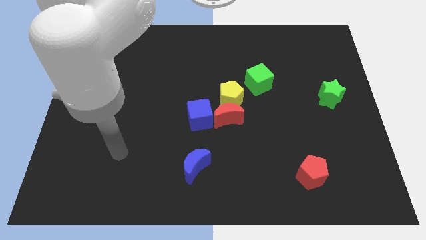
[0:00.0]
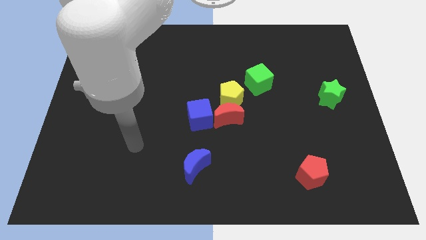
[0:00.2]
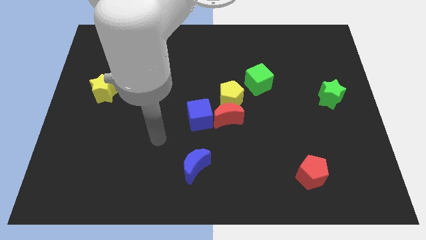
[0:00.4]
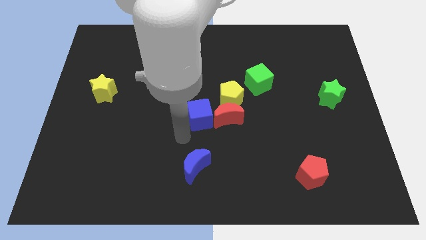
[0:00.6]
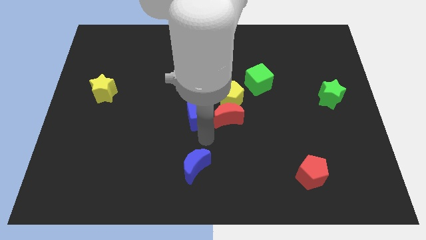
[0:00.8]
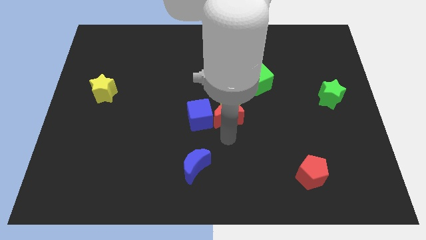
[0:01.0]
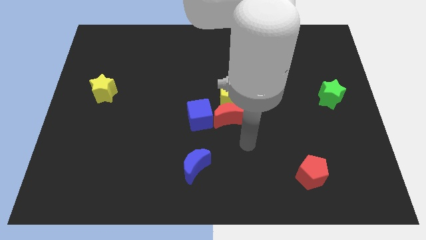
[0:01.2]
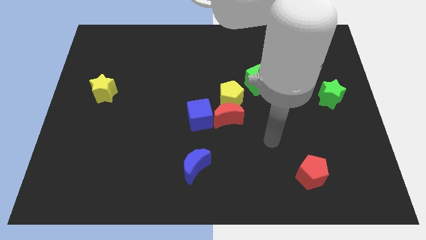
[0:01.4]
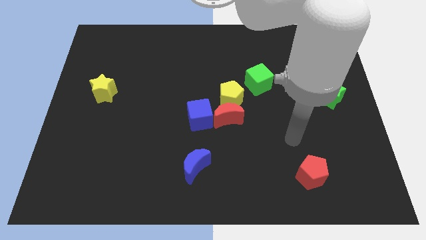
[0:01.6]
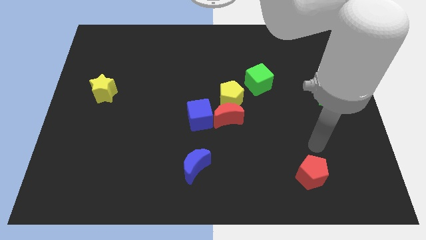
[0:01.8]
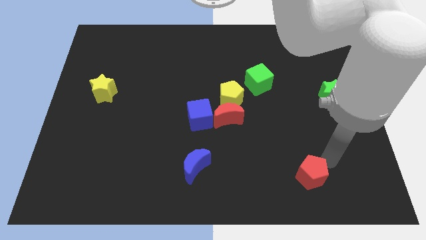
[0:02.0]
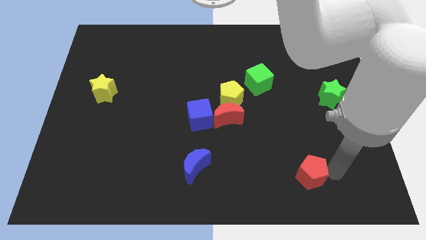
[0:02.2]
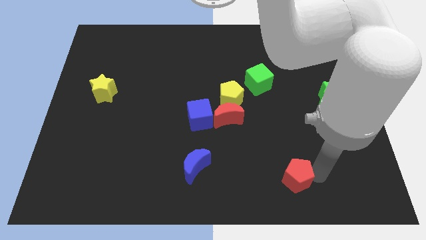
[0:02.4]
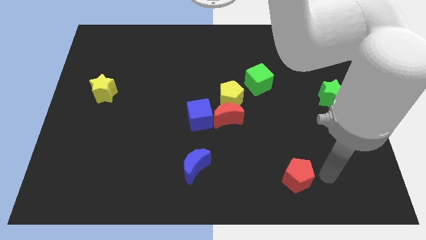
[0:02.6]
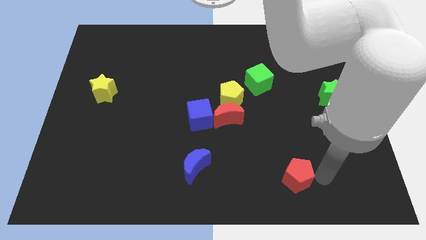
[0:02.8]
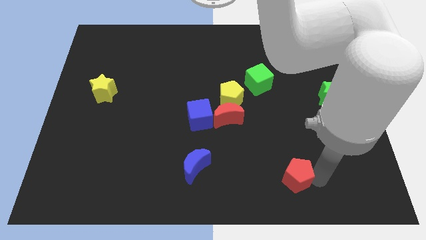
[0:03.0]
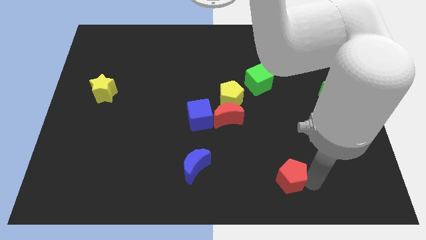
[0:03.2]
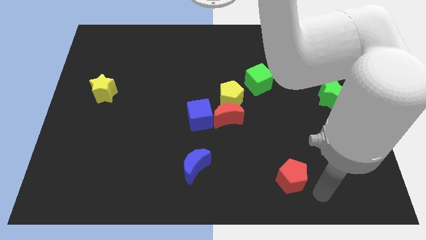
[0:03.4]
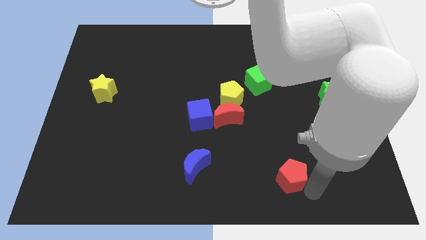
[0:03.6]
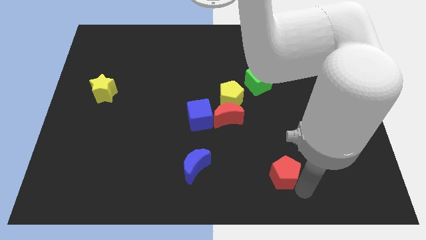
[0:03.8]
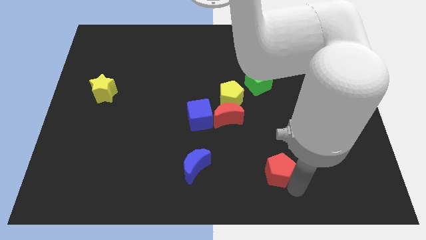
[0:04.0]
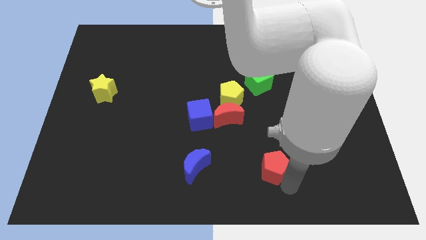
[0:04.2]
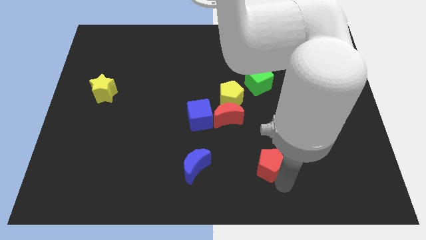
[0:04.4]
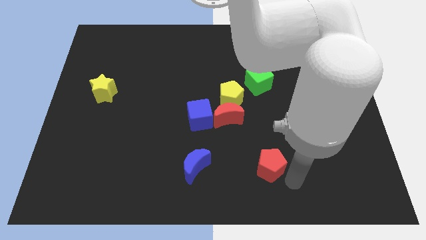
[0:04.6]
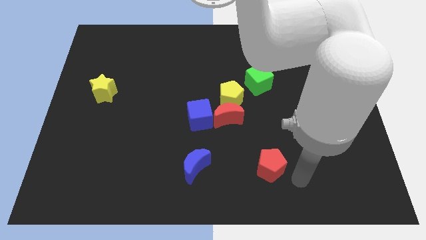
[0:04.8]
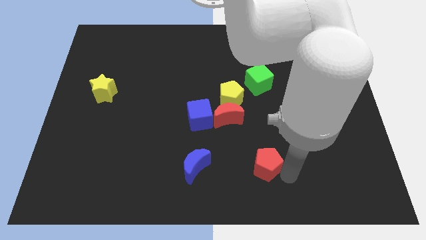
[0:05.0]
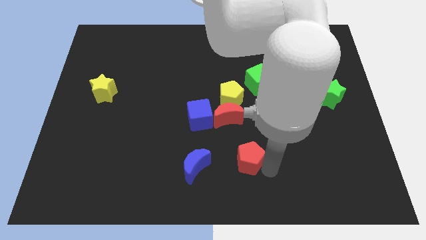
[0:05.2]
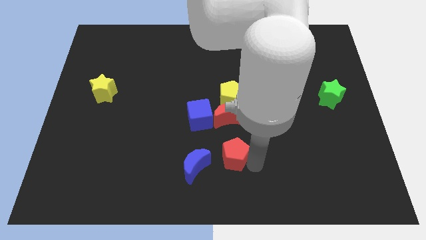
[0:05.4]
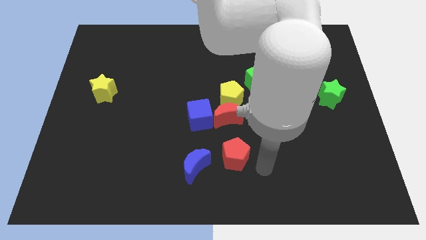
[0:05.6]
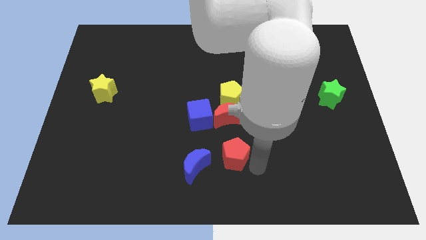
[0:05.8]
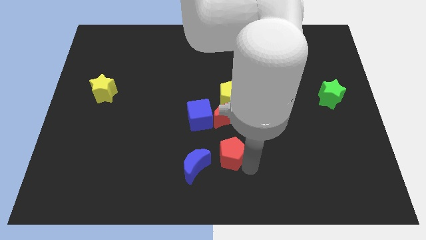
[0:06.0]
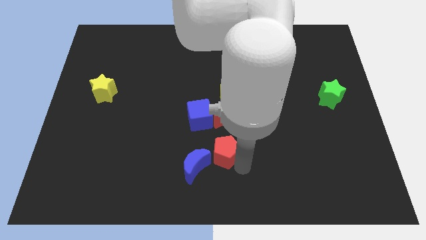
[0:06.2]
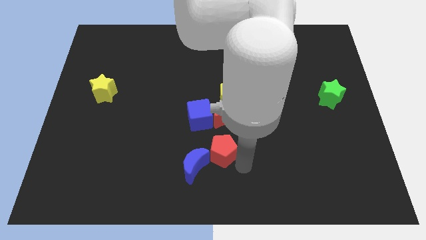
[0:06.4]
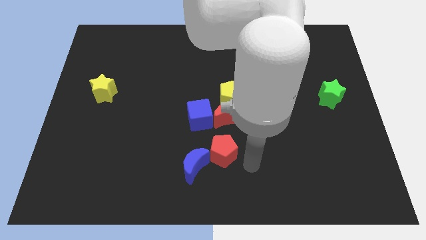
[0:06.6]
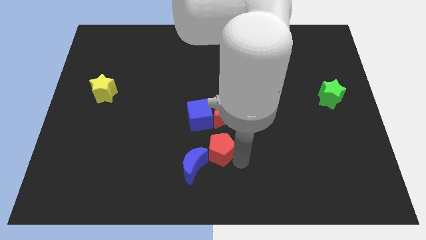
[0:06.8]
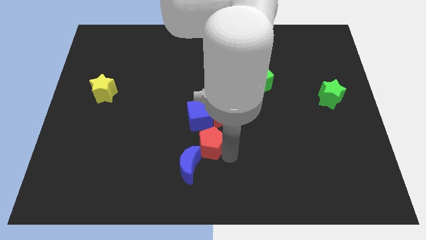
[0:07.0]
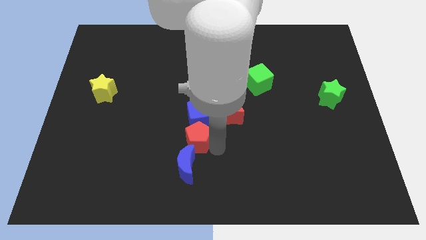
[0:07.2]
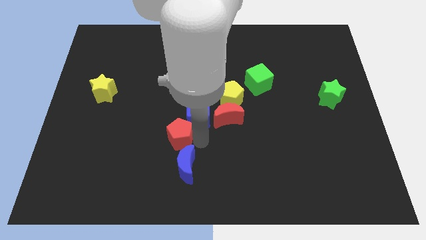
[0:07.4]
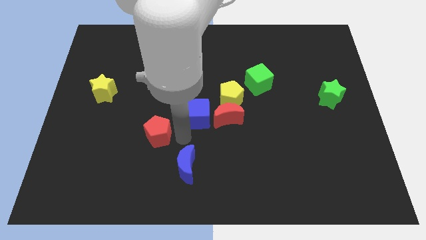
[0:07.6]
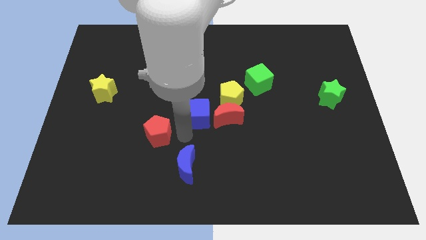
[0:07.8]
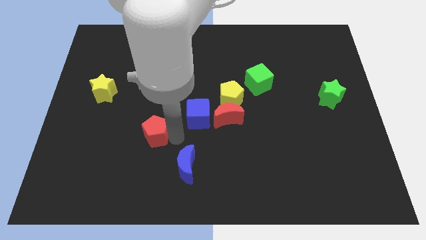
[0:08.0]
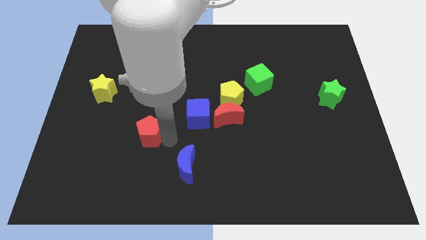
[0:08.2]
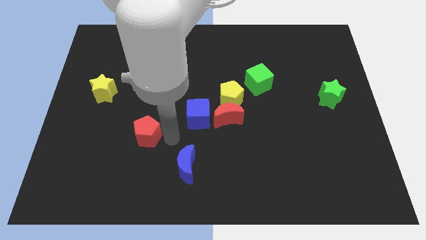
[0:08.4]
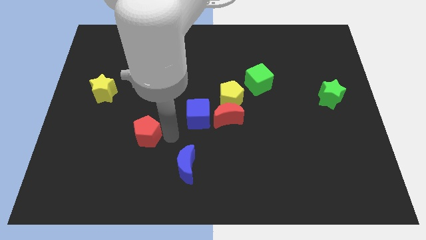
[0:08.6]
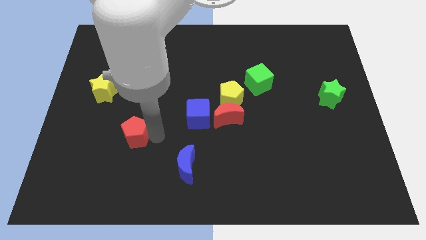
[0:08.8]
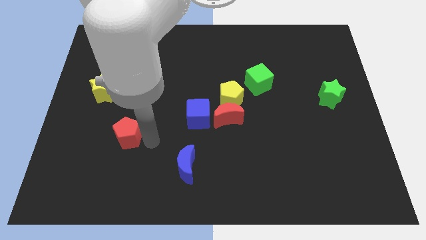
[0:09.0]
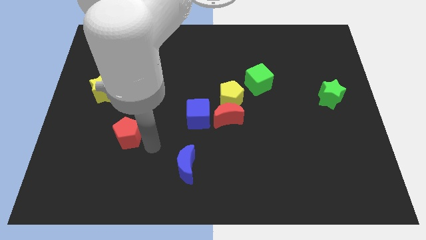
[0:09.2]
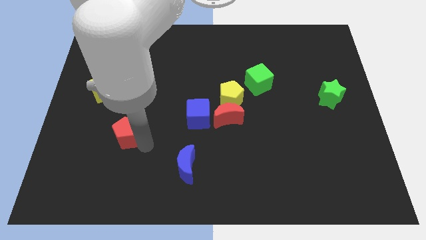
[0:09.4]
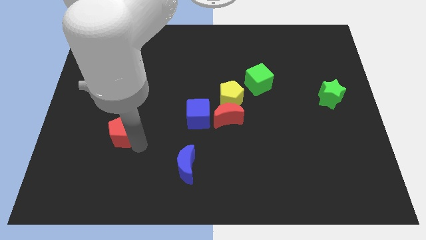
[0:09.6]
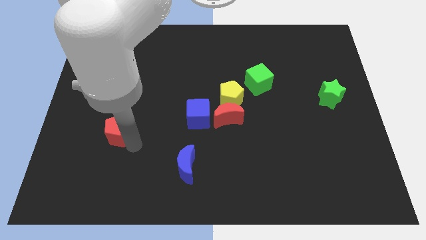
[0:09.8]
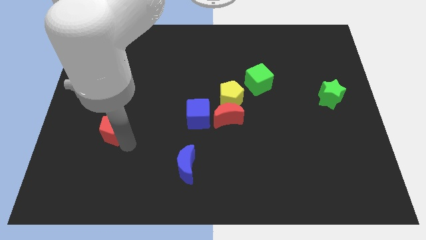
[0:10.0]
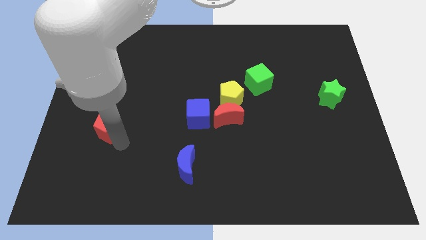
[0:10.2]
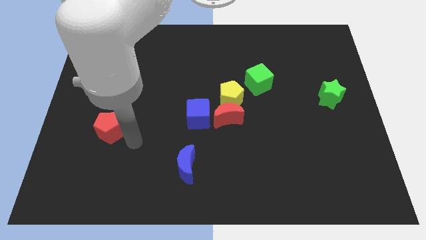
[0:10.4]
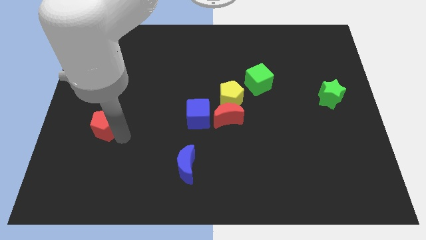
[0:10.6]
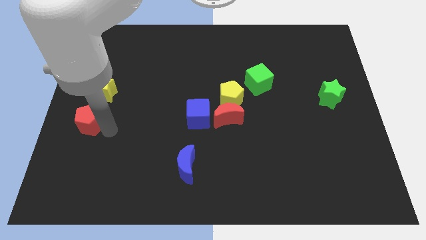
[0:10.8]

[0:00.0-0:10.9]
push the red pentagon to the left side of the board

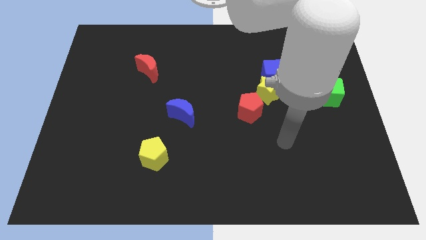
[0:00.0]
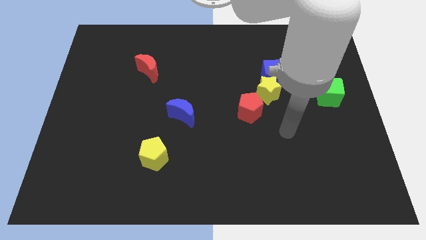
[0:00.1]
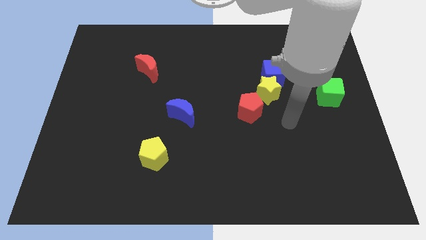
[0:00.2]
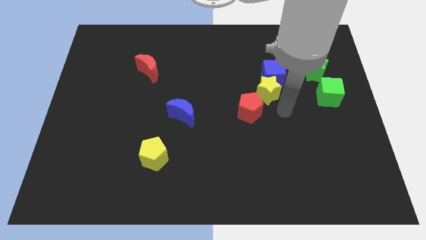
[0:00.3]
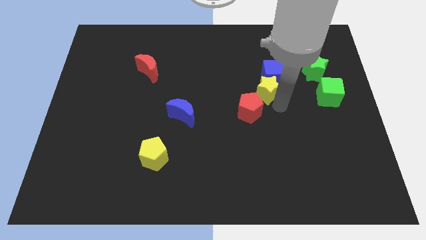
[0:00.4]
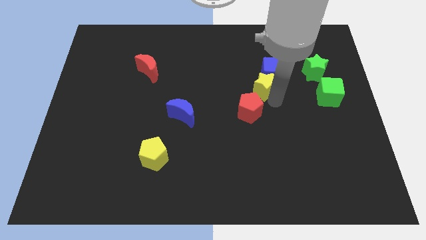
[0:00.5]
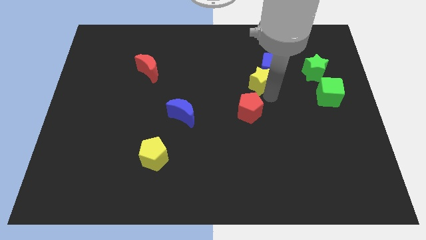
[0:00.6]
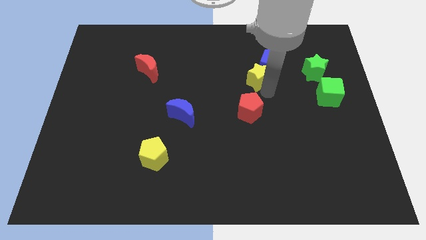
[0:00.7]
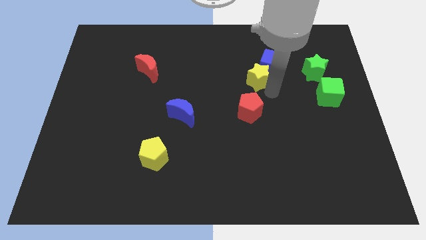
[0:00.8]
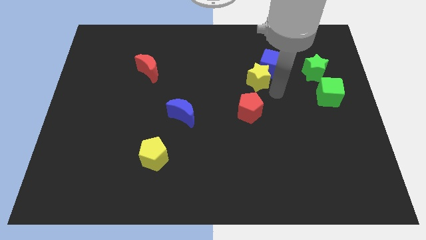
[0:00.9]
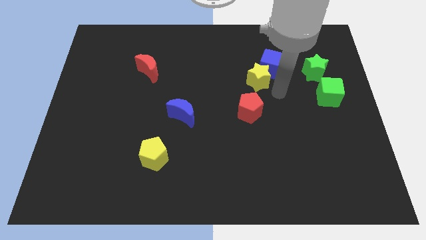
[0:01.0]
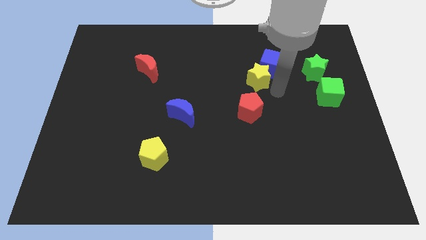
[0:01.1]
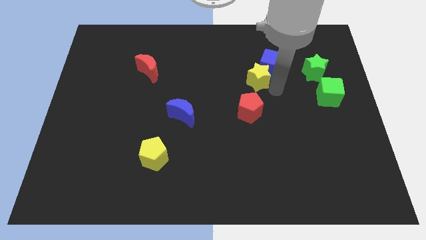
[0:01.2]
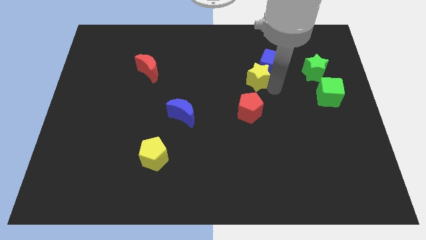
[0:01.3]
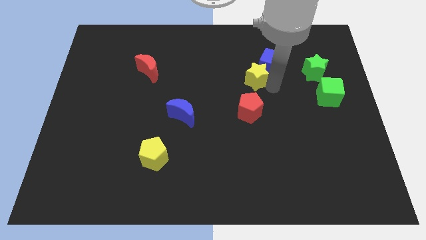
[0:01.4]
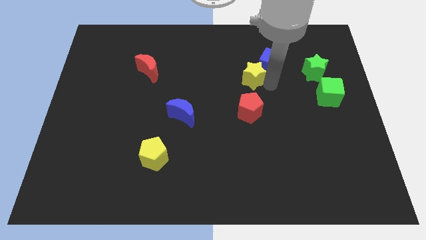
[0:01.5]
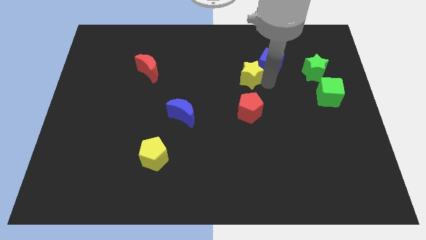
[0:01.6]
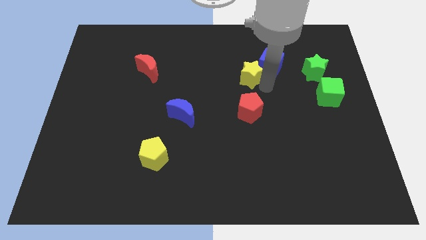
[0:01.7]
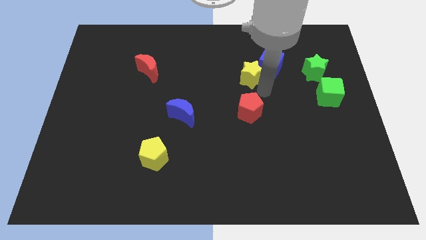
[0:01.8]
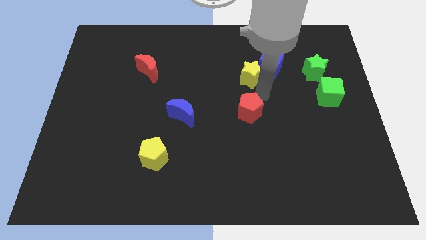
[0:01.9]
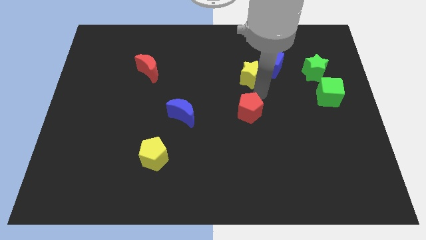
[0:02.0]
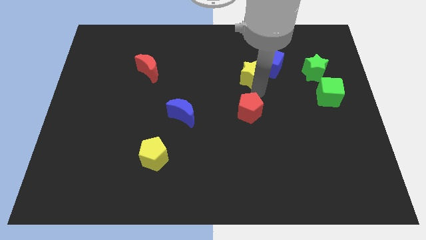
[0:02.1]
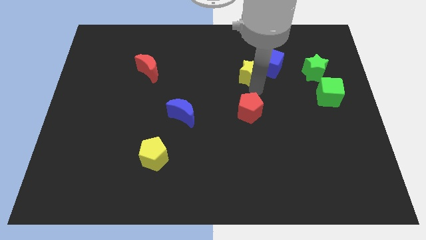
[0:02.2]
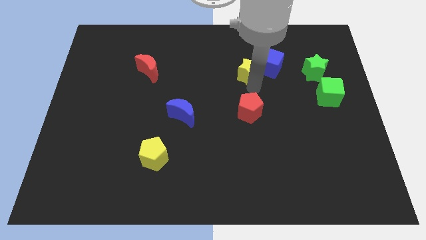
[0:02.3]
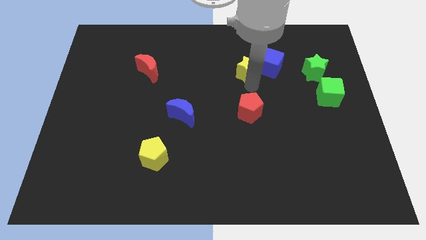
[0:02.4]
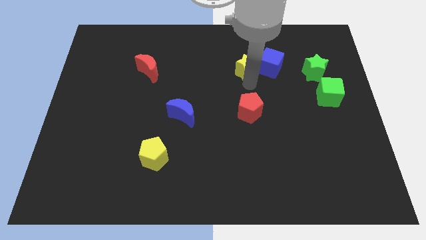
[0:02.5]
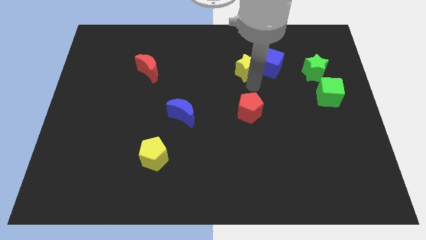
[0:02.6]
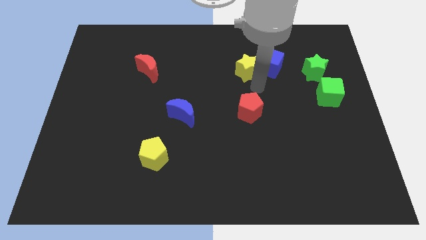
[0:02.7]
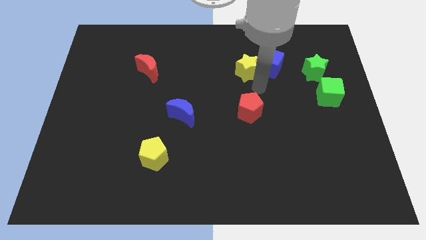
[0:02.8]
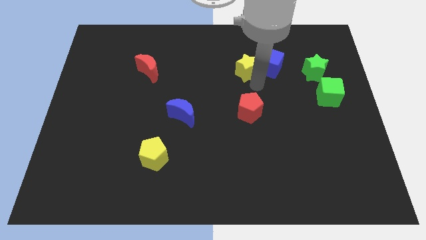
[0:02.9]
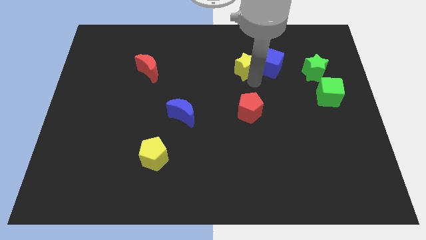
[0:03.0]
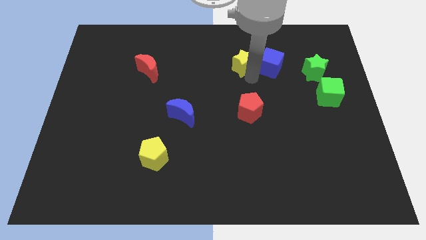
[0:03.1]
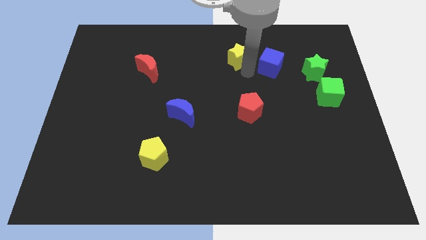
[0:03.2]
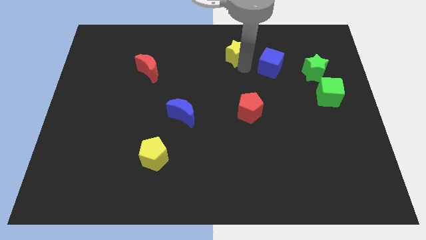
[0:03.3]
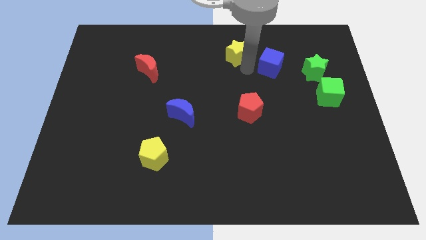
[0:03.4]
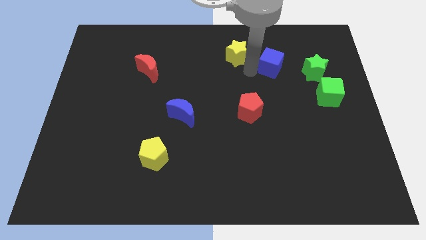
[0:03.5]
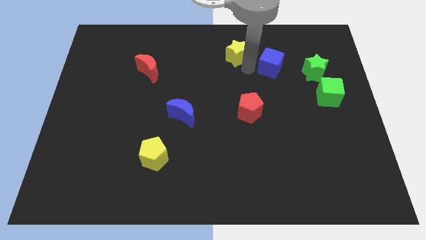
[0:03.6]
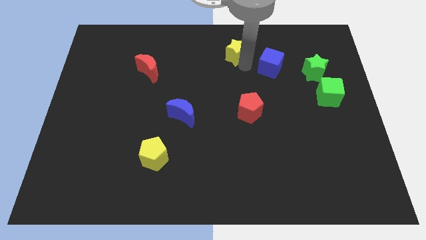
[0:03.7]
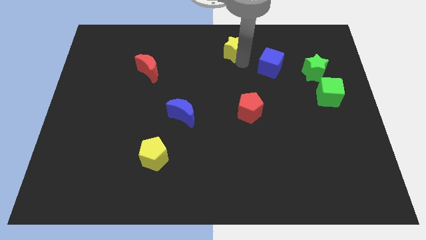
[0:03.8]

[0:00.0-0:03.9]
slide the yellow star to the towards your base
